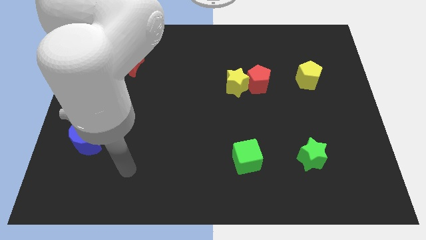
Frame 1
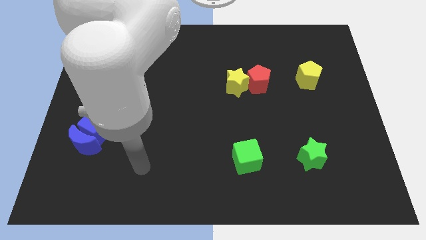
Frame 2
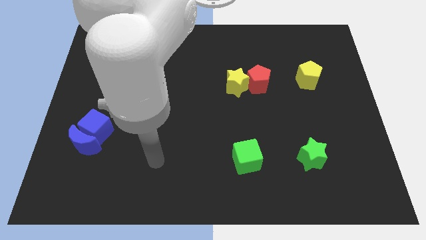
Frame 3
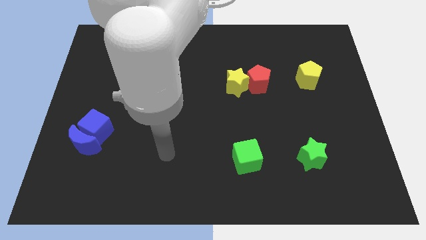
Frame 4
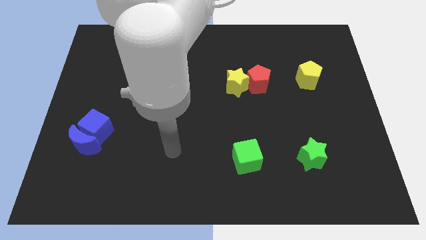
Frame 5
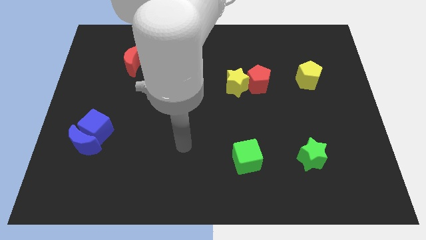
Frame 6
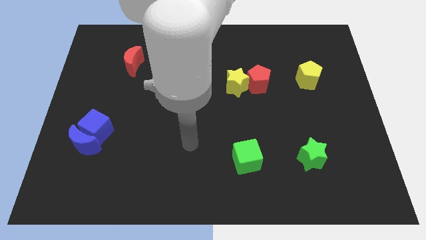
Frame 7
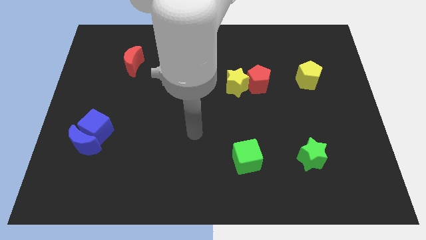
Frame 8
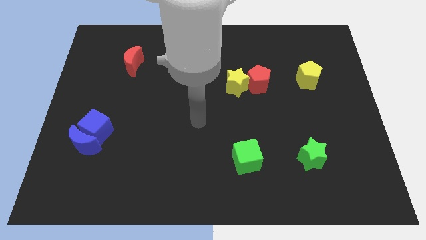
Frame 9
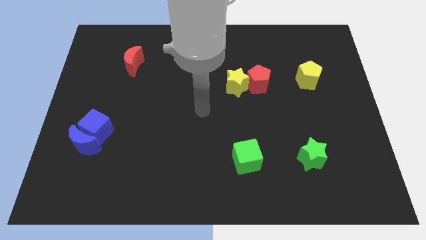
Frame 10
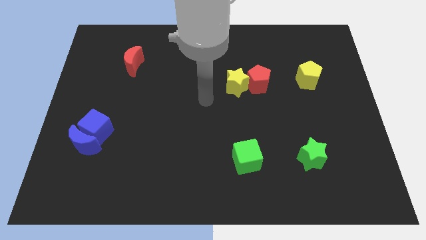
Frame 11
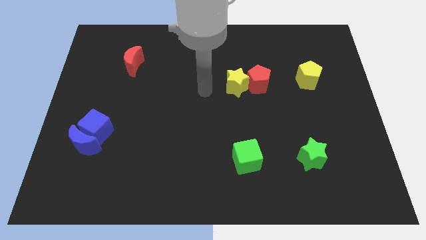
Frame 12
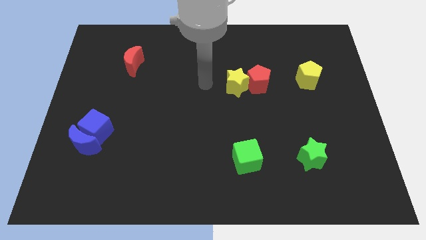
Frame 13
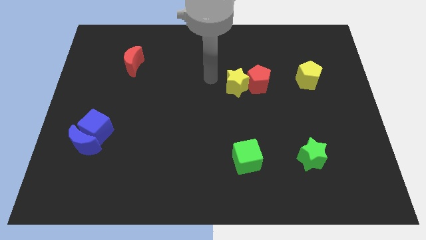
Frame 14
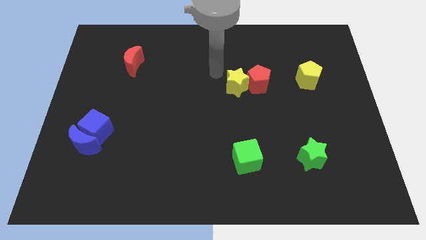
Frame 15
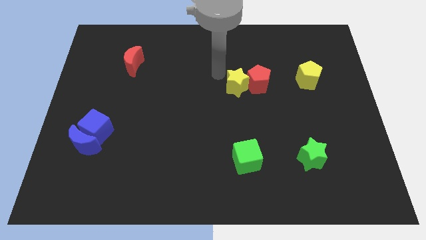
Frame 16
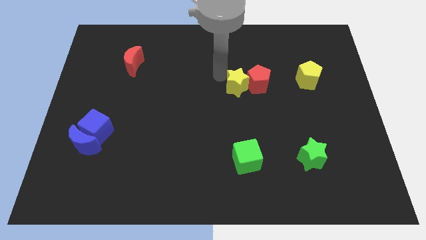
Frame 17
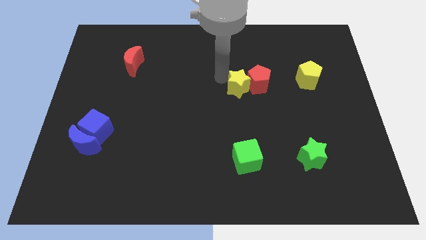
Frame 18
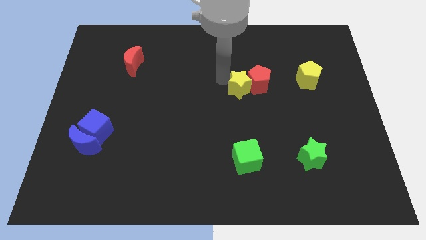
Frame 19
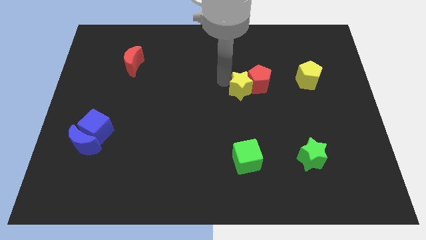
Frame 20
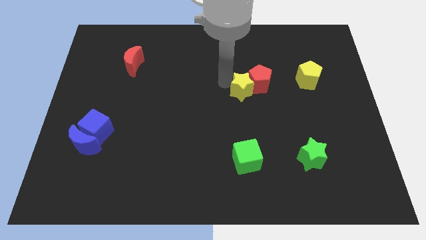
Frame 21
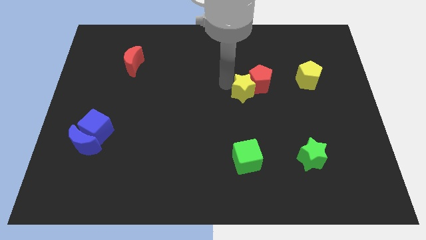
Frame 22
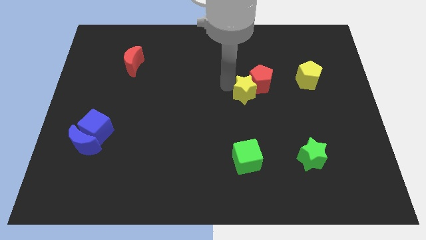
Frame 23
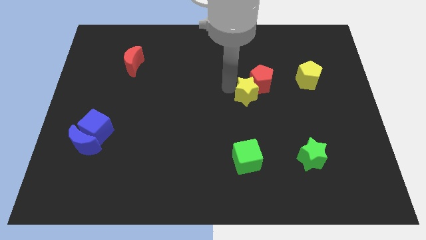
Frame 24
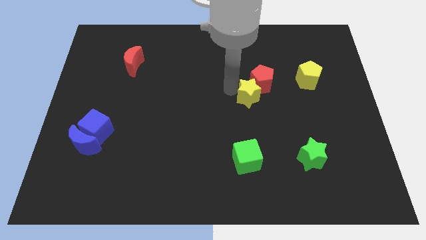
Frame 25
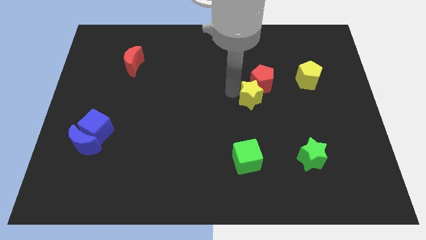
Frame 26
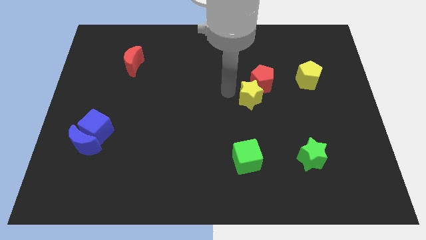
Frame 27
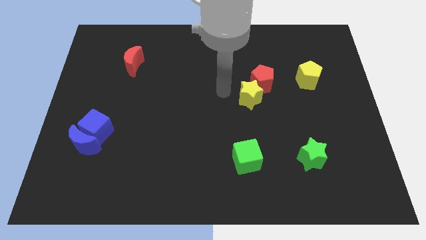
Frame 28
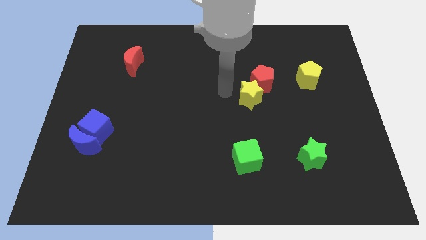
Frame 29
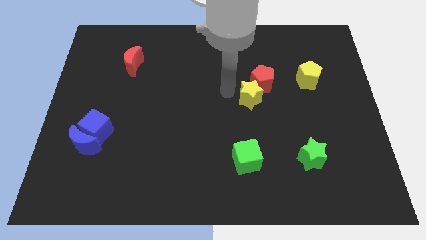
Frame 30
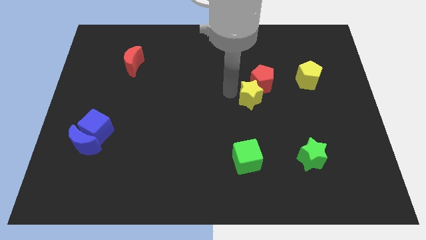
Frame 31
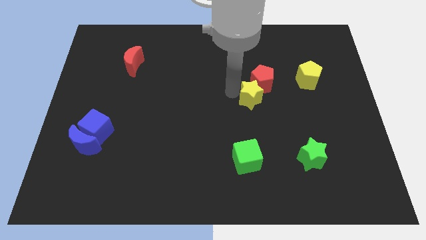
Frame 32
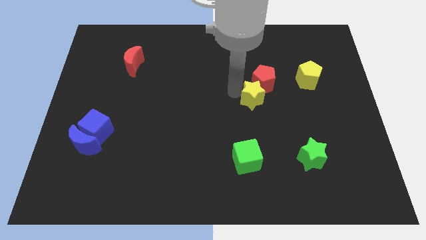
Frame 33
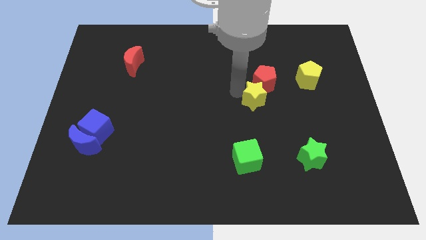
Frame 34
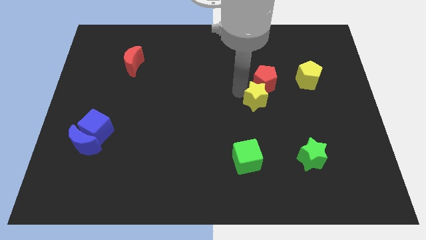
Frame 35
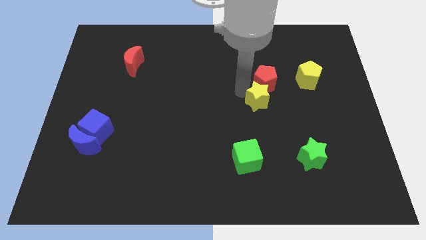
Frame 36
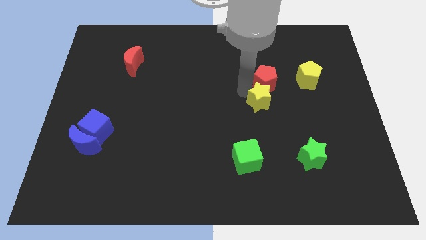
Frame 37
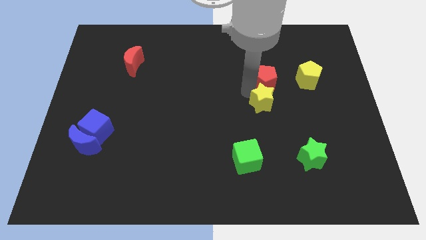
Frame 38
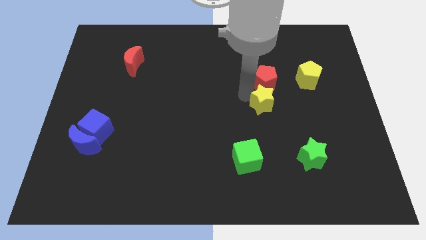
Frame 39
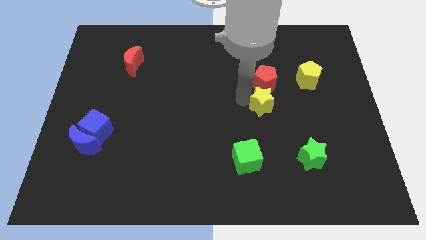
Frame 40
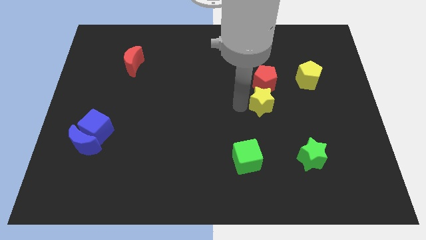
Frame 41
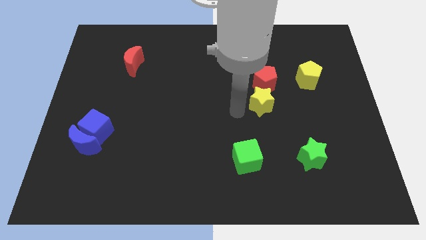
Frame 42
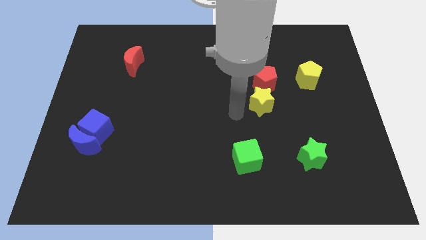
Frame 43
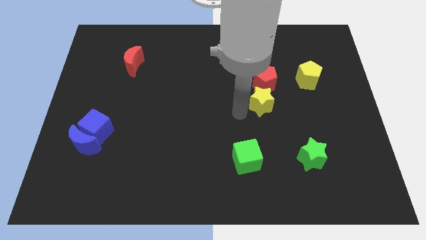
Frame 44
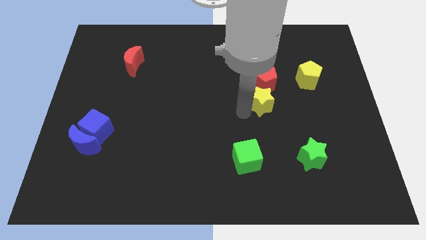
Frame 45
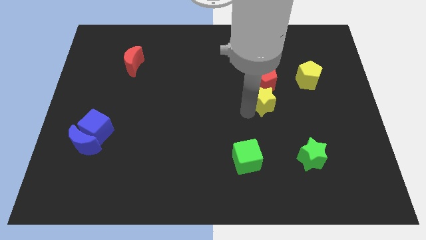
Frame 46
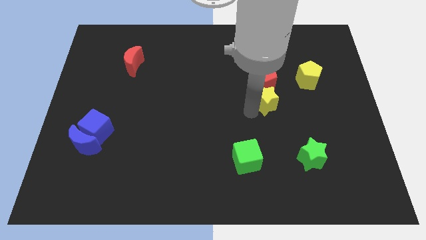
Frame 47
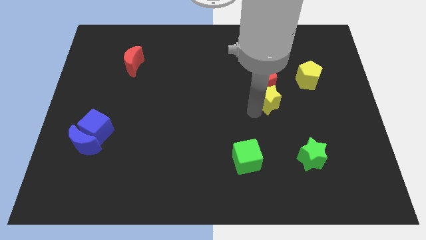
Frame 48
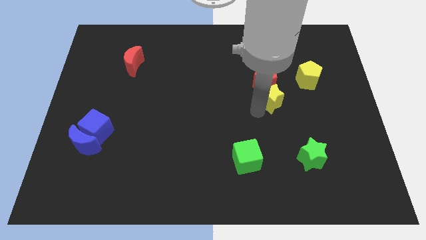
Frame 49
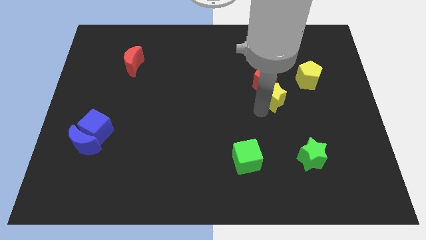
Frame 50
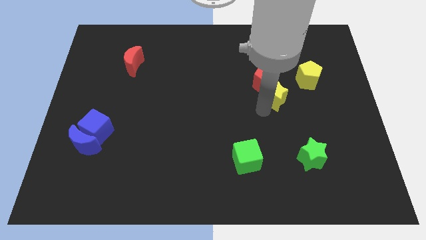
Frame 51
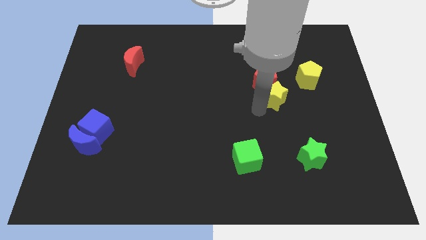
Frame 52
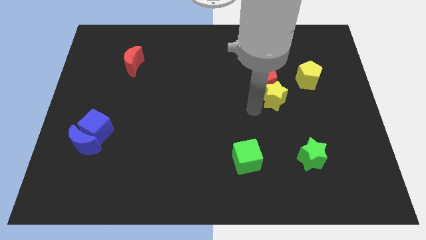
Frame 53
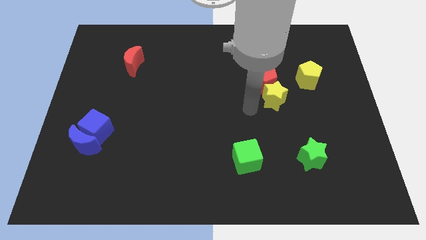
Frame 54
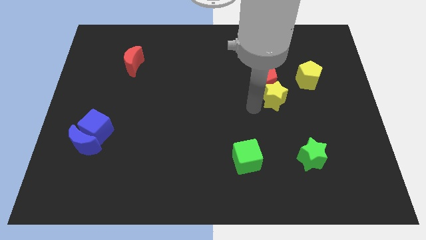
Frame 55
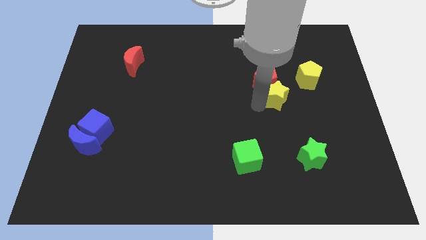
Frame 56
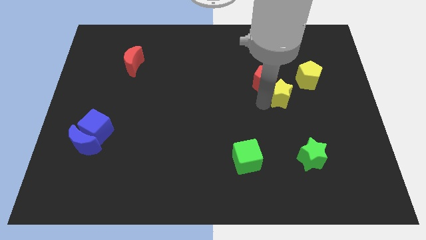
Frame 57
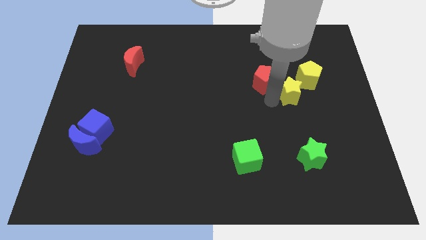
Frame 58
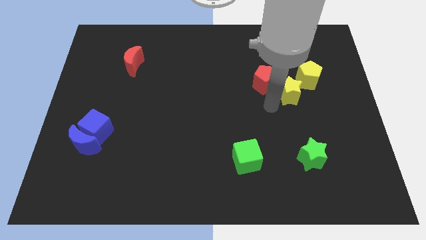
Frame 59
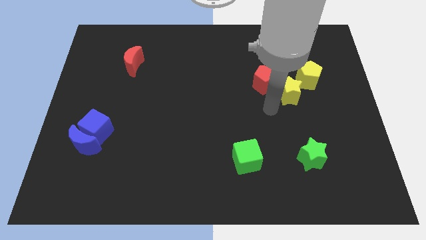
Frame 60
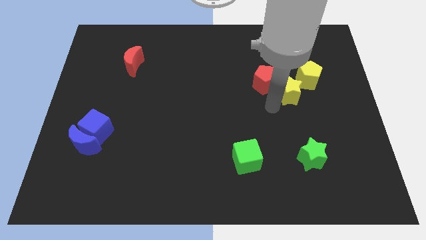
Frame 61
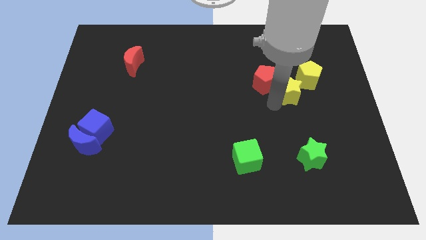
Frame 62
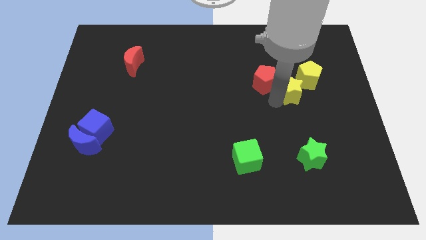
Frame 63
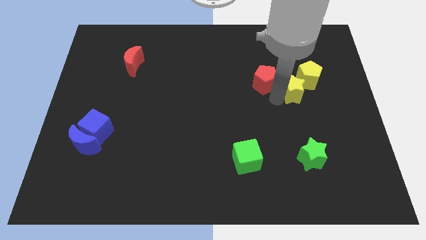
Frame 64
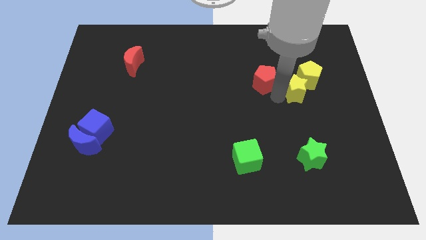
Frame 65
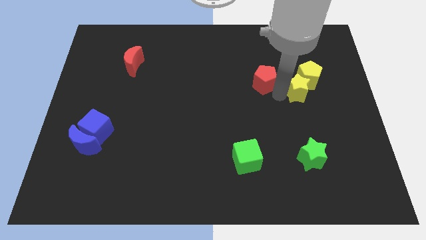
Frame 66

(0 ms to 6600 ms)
move the yellow star towards the yellow pentagon

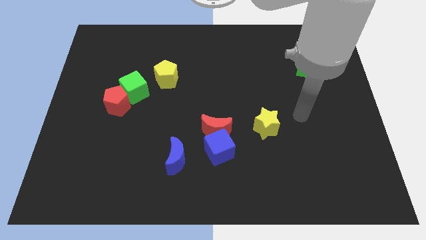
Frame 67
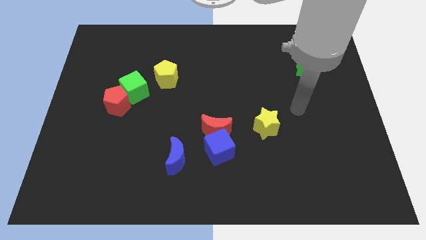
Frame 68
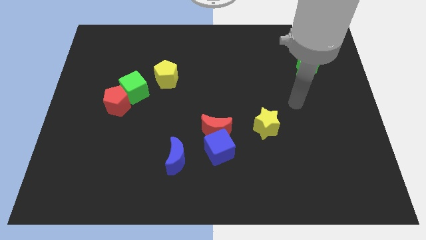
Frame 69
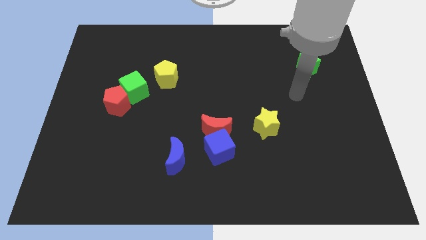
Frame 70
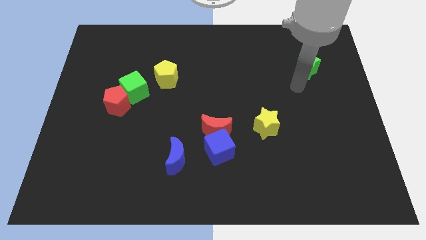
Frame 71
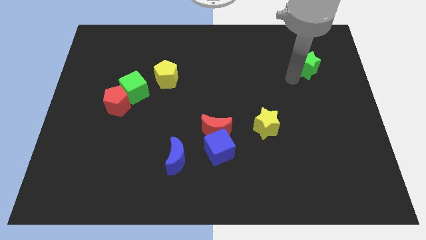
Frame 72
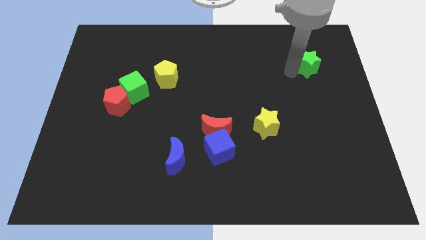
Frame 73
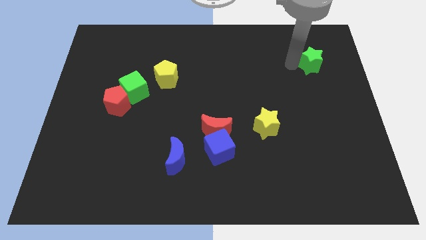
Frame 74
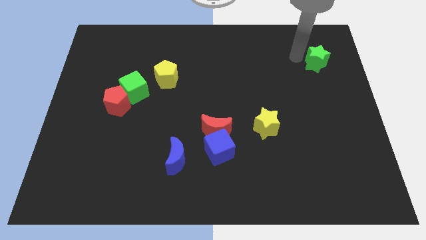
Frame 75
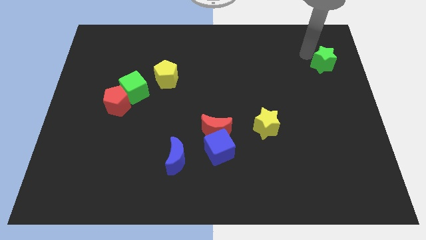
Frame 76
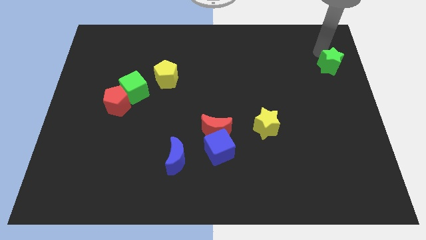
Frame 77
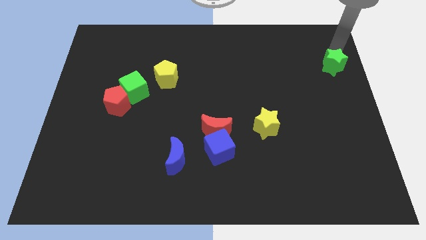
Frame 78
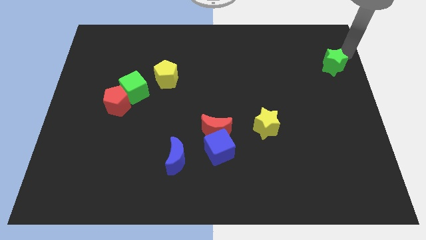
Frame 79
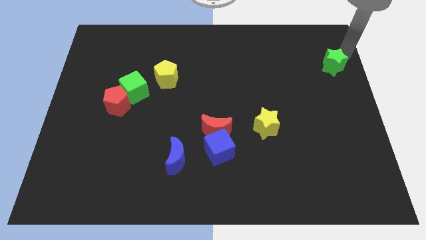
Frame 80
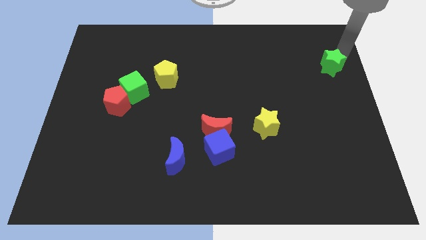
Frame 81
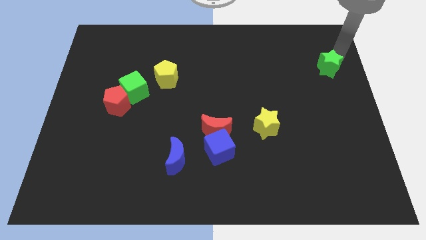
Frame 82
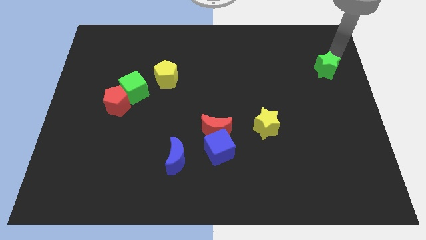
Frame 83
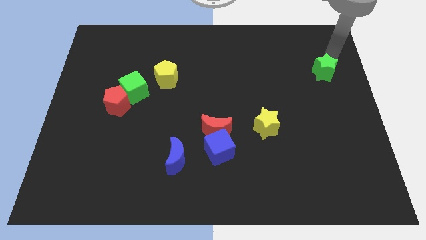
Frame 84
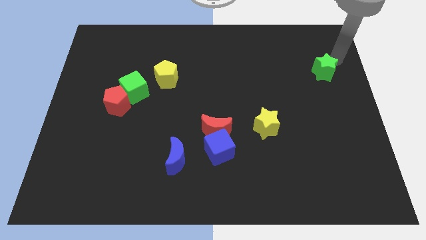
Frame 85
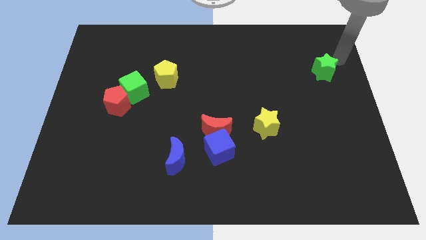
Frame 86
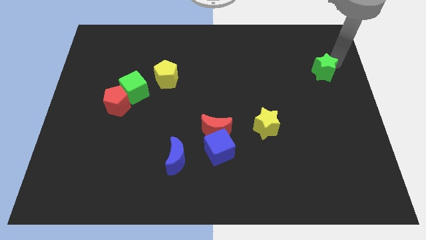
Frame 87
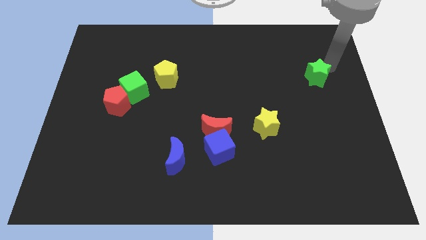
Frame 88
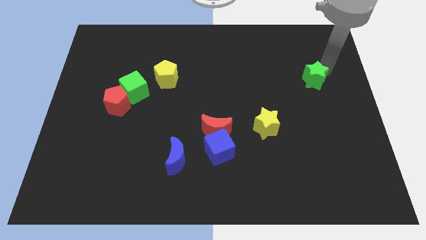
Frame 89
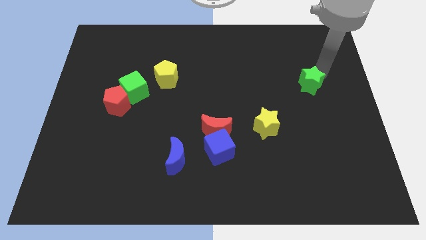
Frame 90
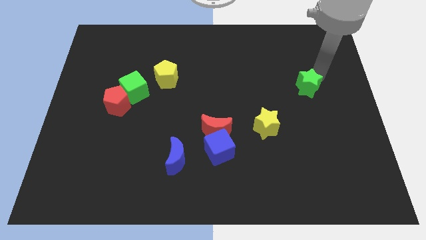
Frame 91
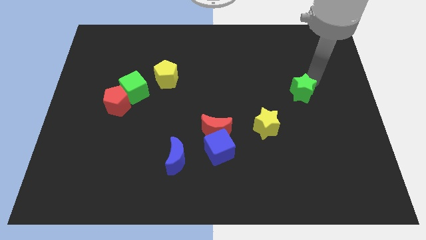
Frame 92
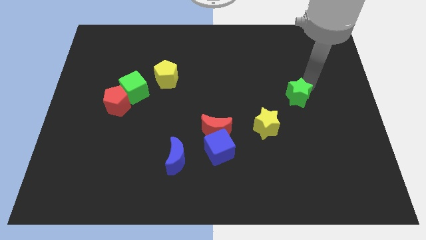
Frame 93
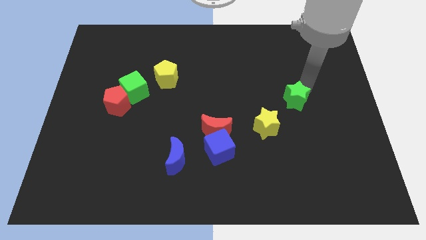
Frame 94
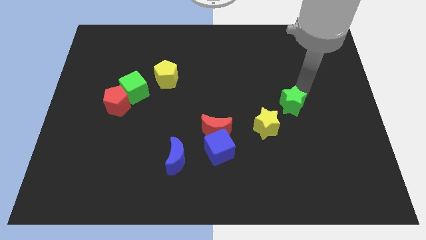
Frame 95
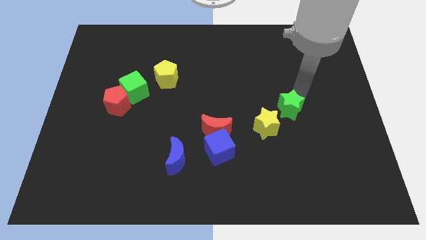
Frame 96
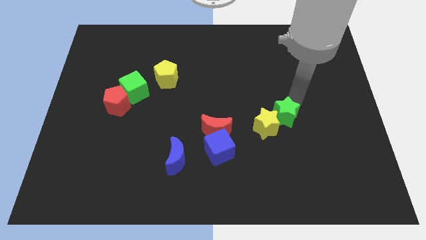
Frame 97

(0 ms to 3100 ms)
put the green star towards the yellow star
